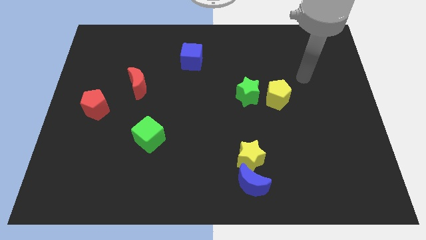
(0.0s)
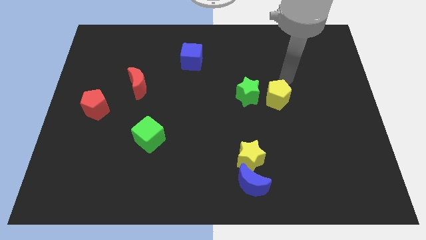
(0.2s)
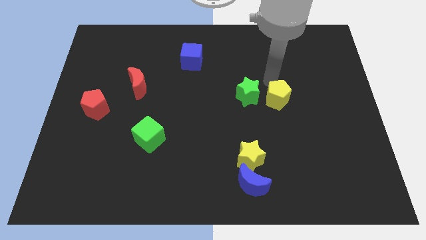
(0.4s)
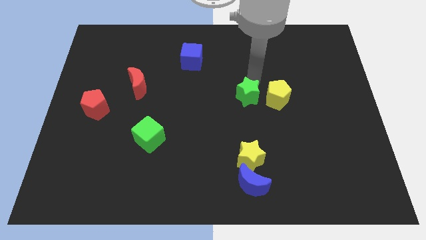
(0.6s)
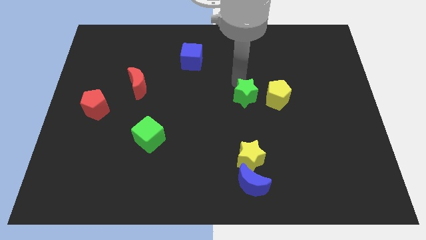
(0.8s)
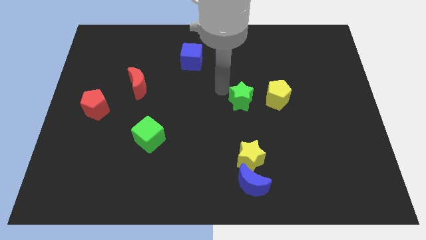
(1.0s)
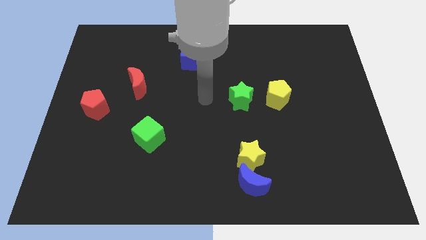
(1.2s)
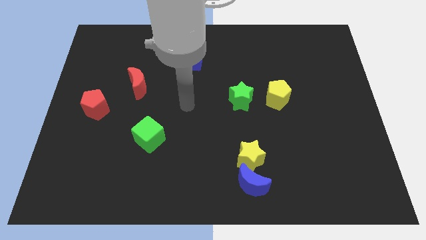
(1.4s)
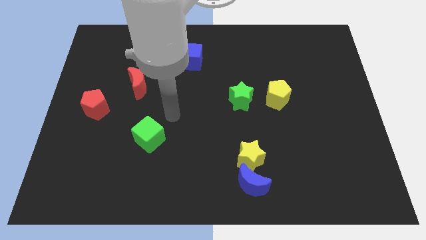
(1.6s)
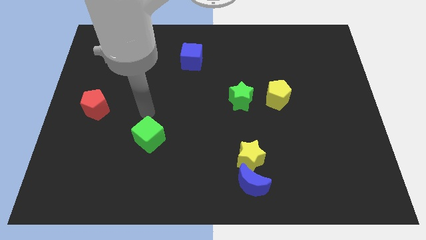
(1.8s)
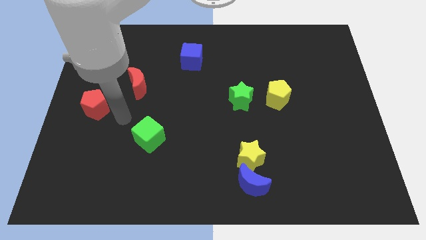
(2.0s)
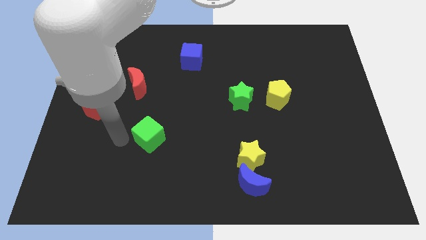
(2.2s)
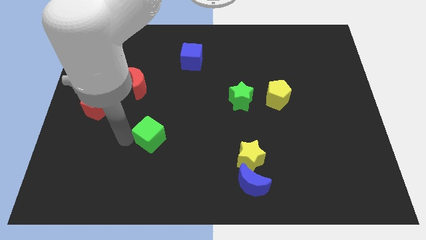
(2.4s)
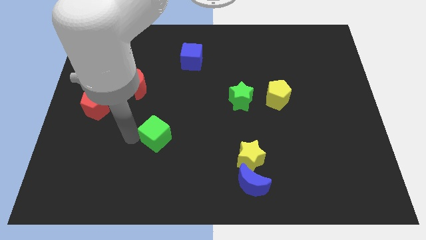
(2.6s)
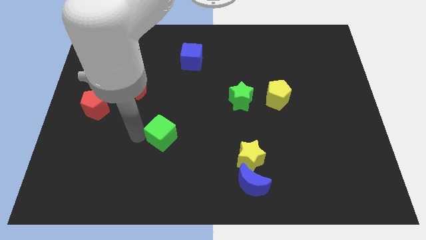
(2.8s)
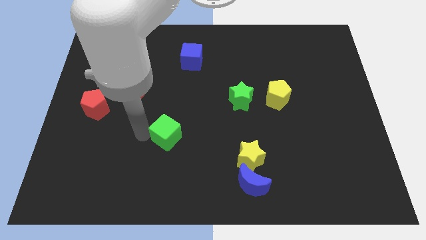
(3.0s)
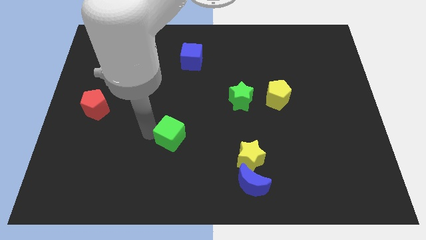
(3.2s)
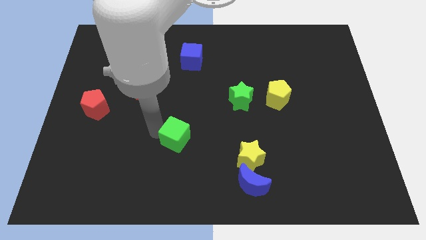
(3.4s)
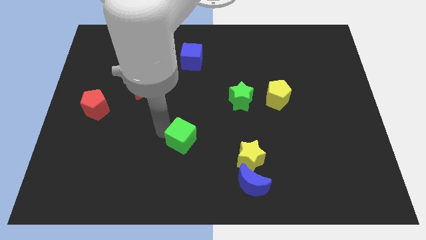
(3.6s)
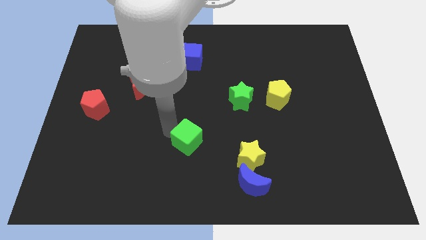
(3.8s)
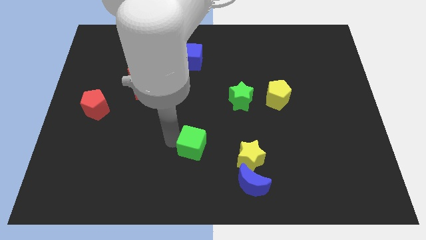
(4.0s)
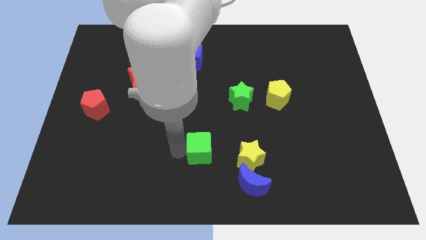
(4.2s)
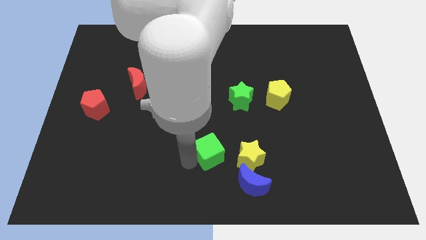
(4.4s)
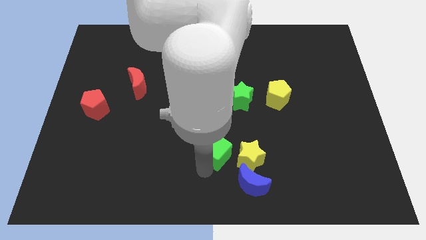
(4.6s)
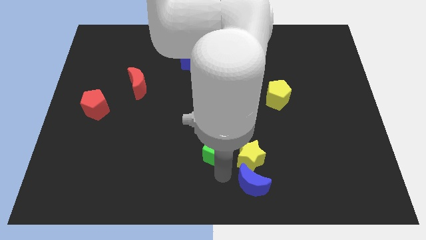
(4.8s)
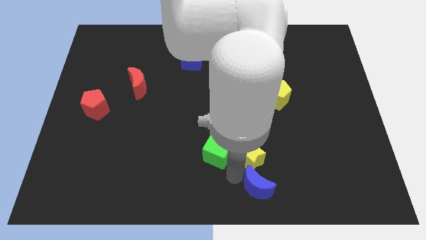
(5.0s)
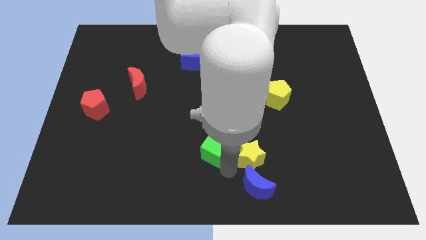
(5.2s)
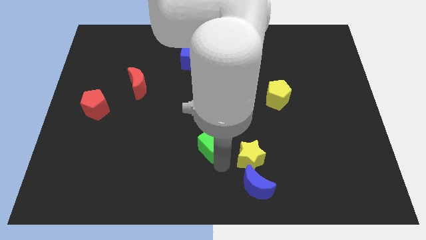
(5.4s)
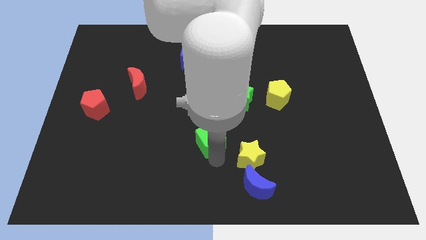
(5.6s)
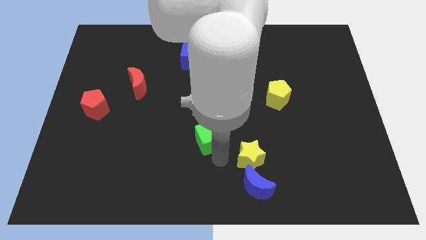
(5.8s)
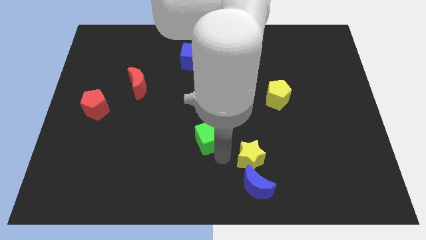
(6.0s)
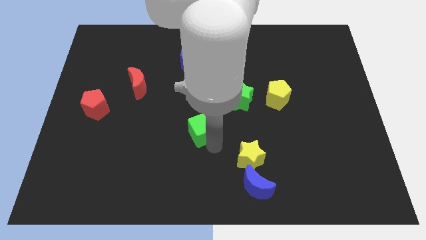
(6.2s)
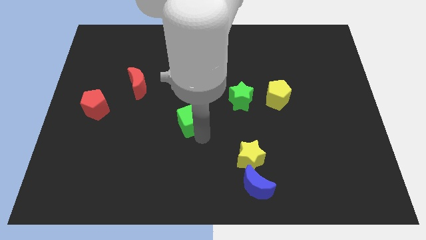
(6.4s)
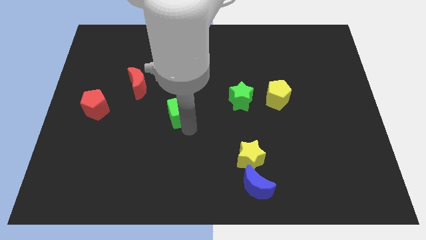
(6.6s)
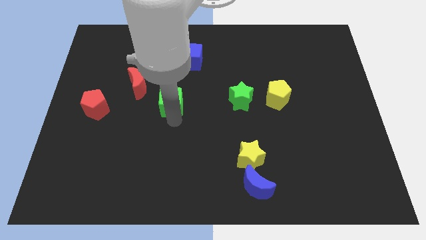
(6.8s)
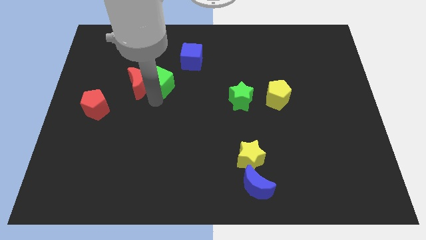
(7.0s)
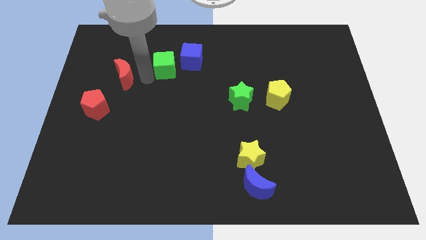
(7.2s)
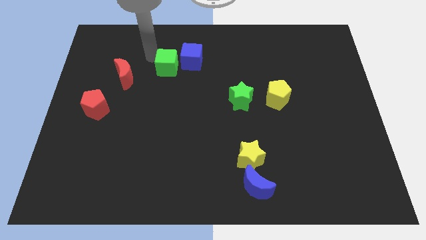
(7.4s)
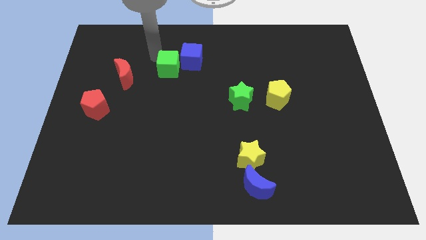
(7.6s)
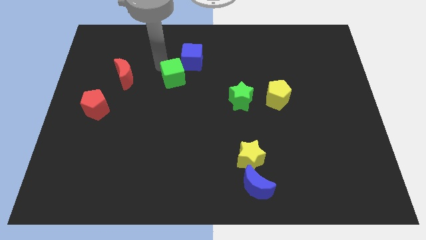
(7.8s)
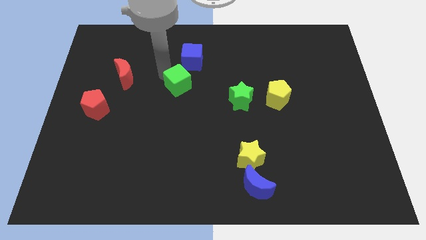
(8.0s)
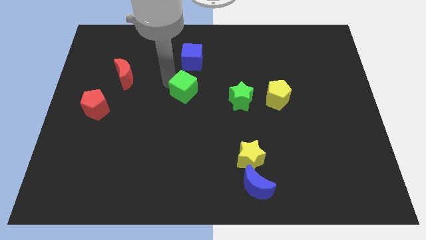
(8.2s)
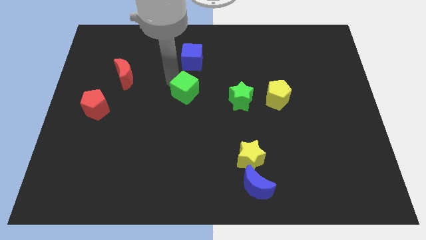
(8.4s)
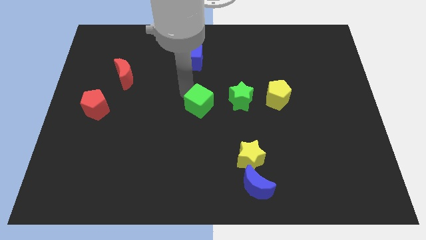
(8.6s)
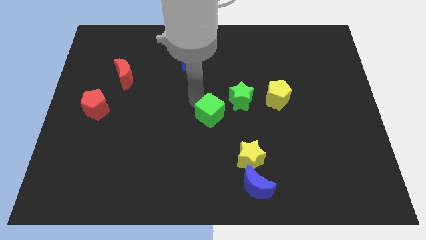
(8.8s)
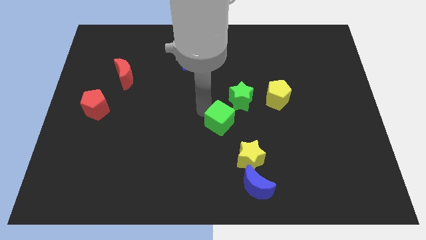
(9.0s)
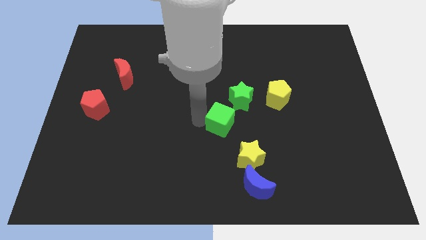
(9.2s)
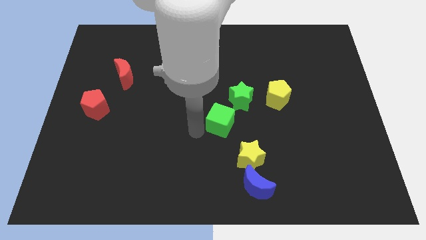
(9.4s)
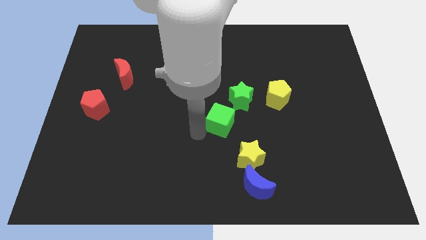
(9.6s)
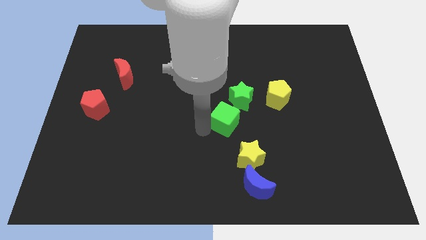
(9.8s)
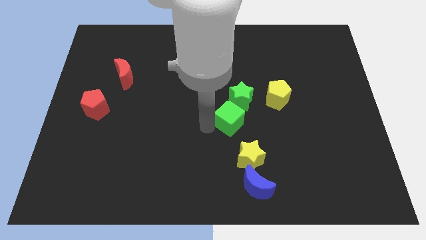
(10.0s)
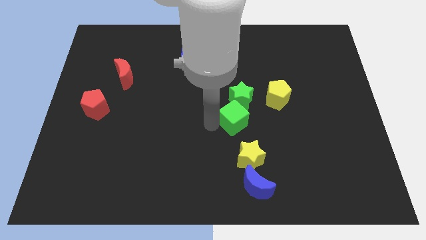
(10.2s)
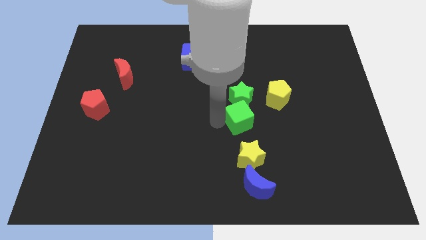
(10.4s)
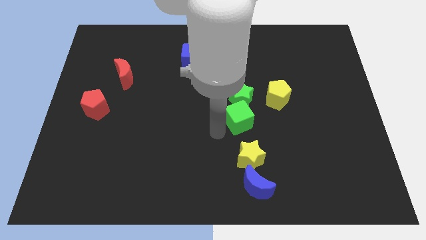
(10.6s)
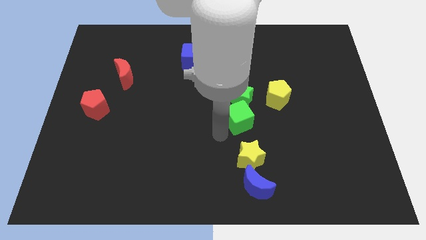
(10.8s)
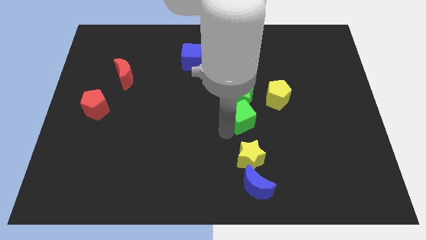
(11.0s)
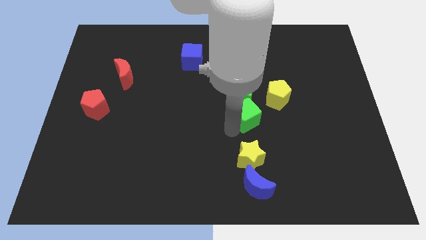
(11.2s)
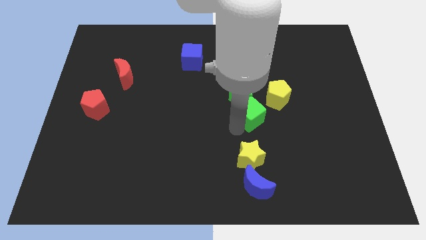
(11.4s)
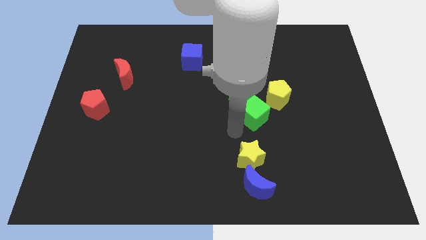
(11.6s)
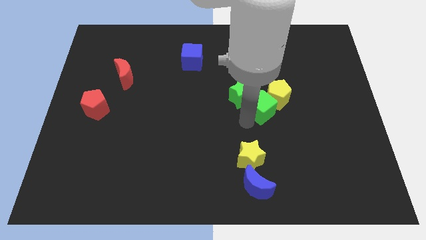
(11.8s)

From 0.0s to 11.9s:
slide the green cube next to the yellow pentagon

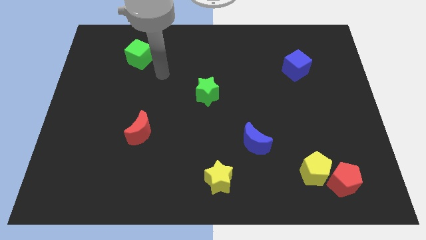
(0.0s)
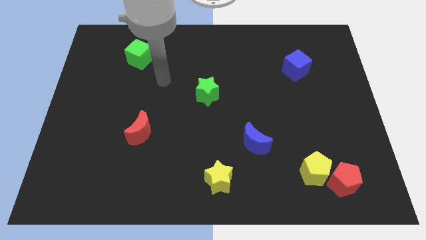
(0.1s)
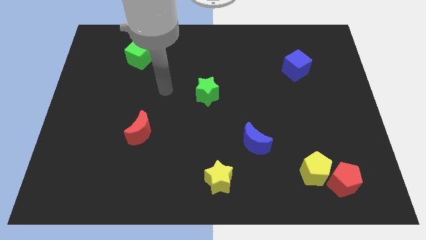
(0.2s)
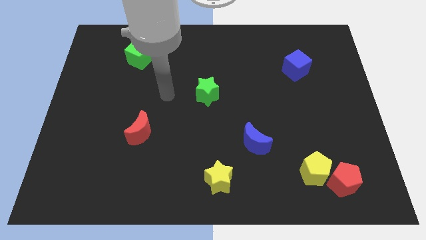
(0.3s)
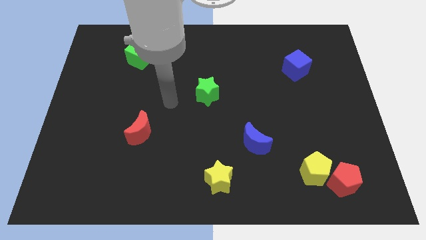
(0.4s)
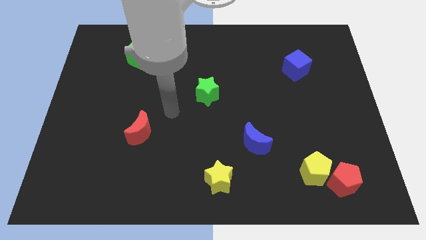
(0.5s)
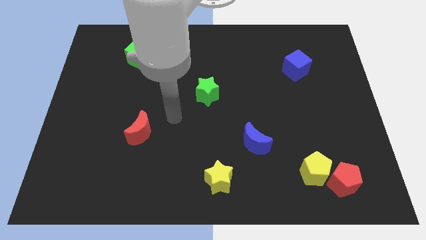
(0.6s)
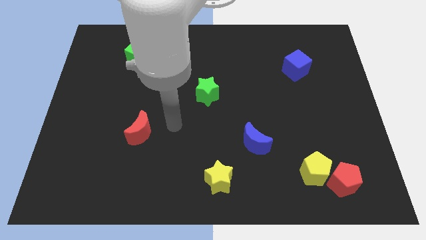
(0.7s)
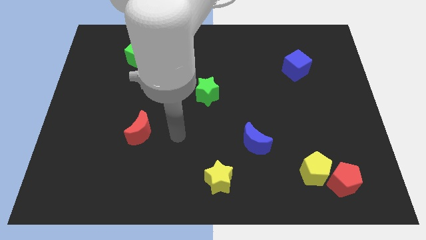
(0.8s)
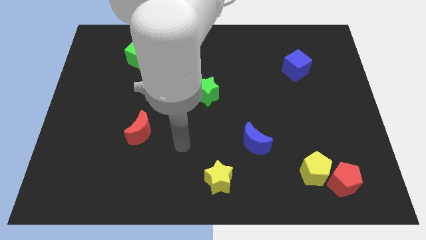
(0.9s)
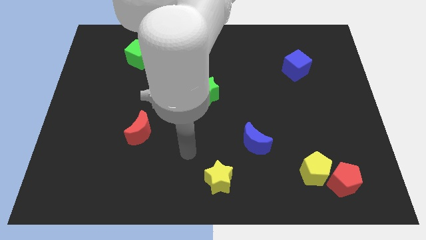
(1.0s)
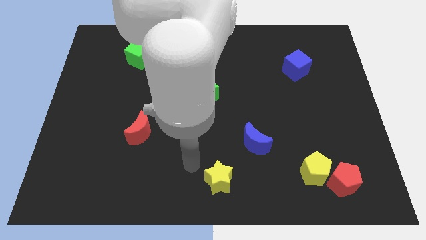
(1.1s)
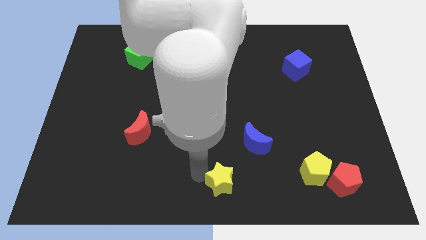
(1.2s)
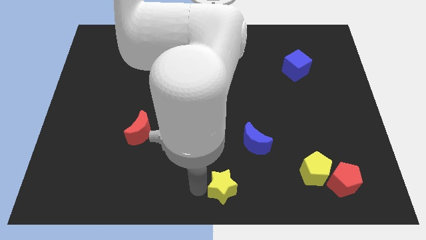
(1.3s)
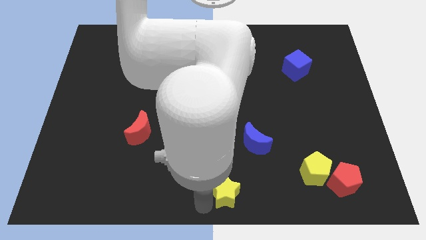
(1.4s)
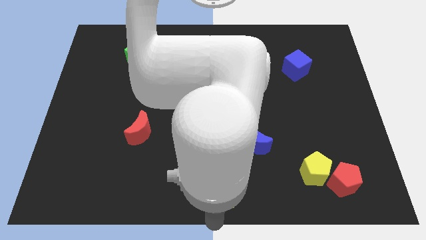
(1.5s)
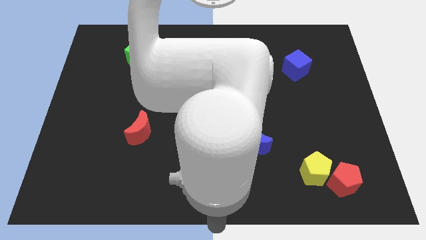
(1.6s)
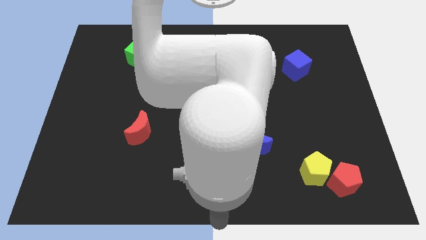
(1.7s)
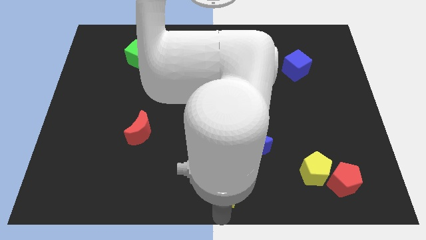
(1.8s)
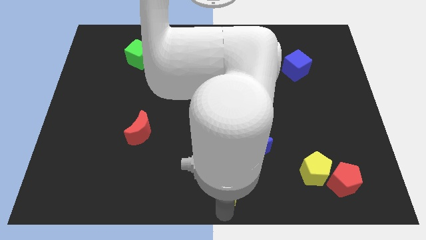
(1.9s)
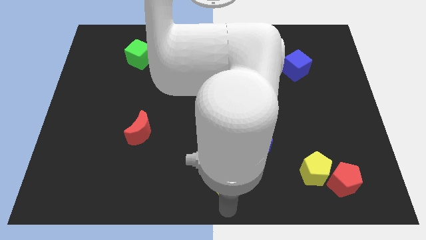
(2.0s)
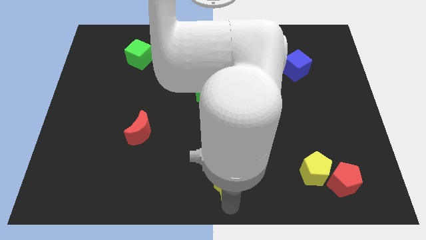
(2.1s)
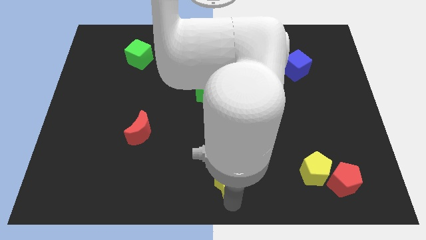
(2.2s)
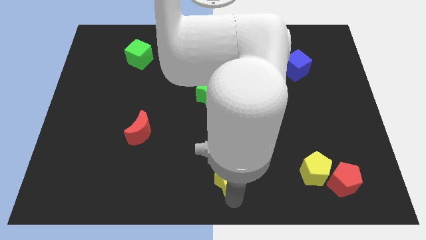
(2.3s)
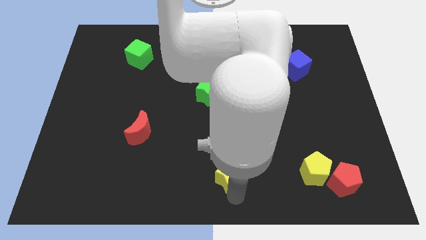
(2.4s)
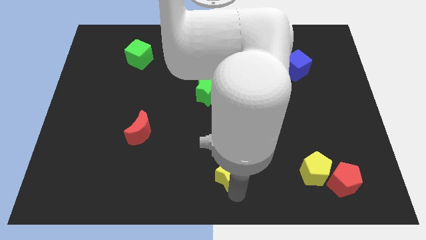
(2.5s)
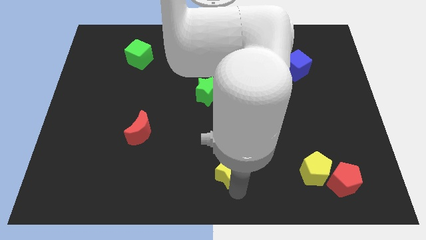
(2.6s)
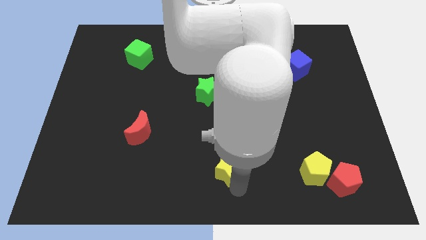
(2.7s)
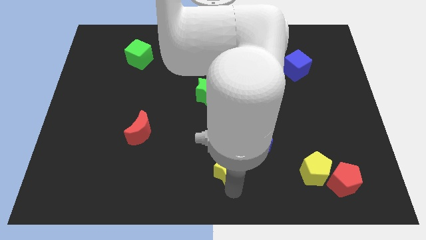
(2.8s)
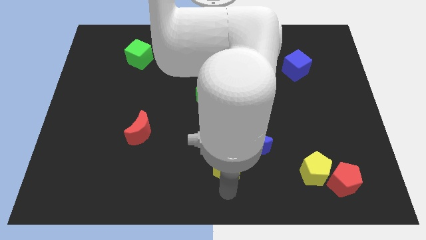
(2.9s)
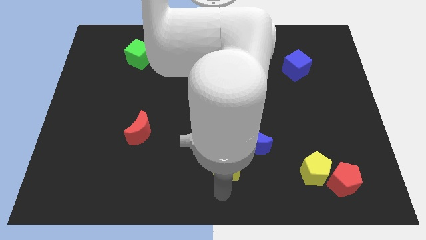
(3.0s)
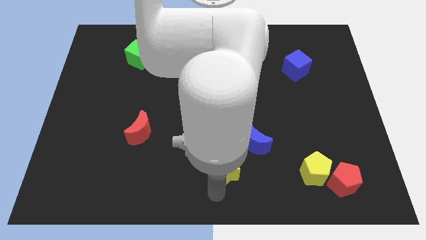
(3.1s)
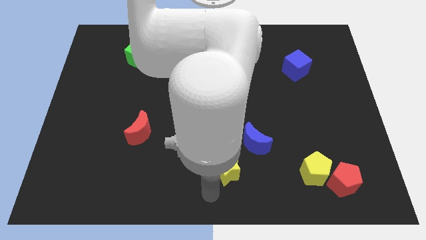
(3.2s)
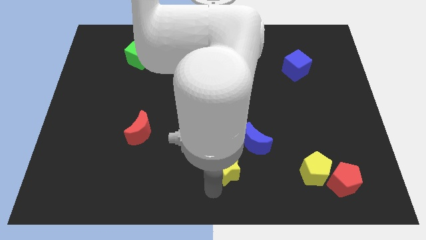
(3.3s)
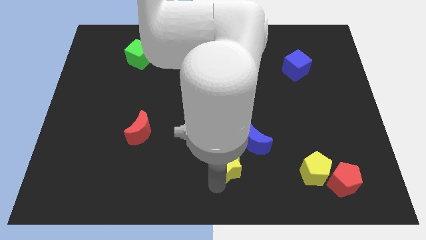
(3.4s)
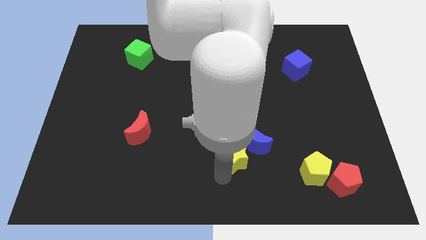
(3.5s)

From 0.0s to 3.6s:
move the yellow star towards the blue moon
